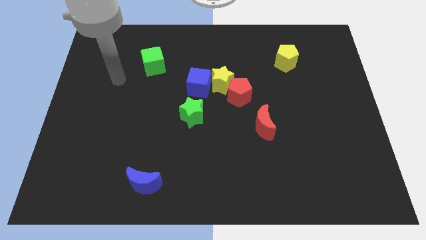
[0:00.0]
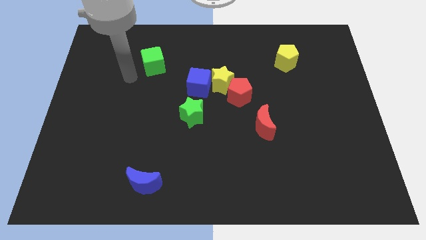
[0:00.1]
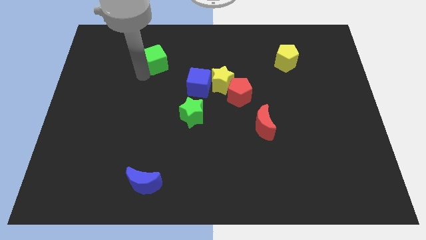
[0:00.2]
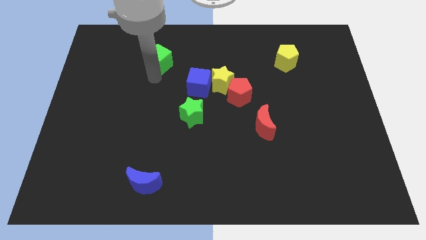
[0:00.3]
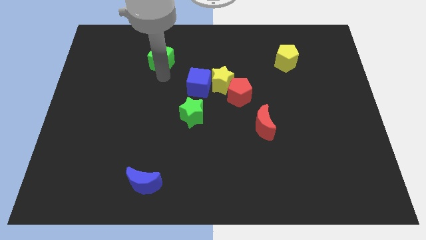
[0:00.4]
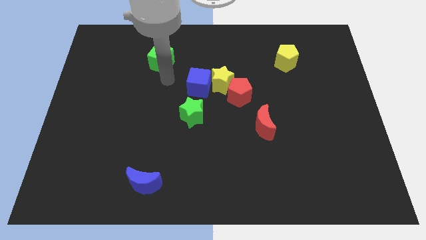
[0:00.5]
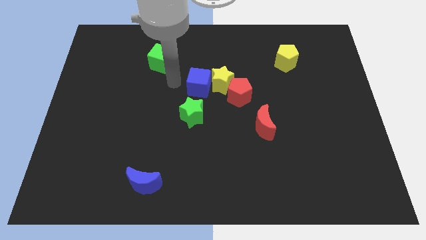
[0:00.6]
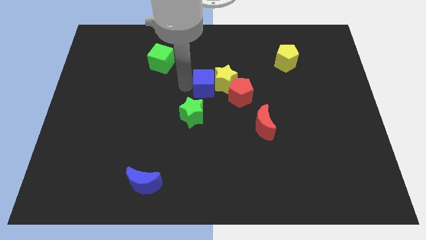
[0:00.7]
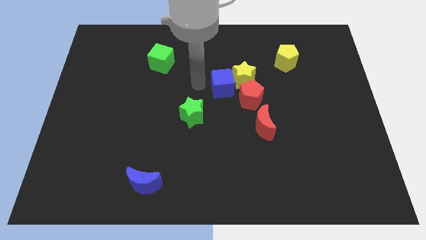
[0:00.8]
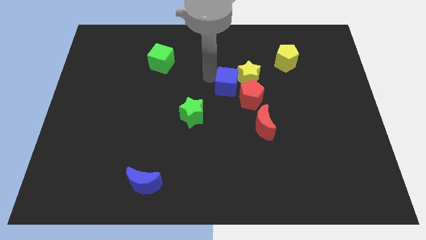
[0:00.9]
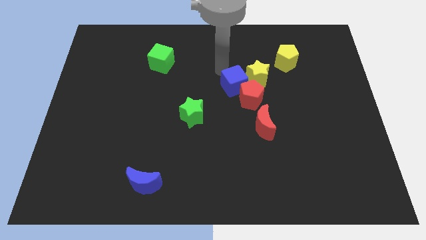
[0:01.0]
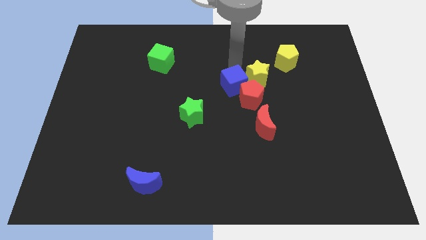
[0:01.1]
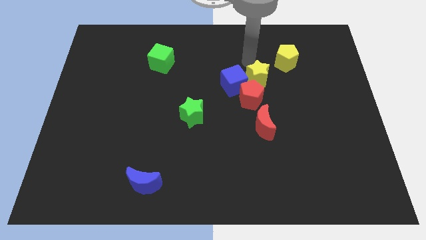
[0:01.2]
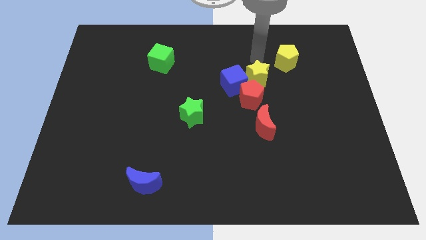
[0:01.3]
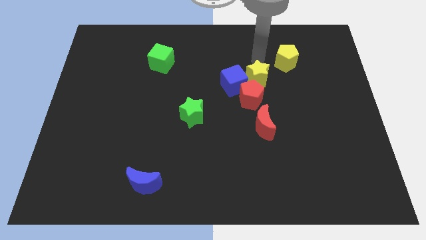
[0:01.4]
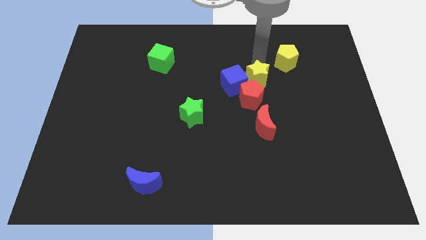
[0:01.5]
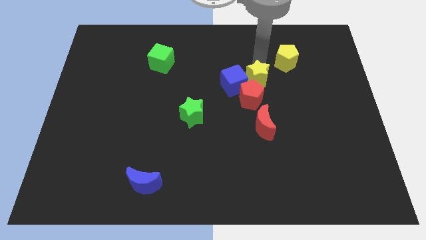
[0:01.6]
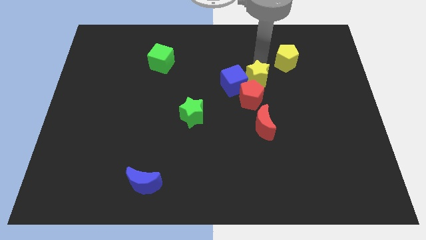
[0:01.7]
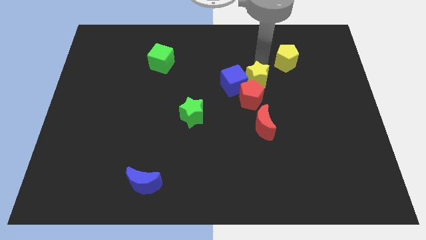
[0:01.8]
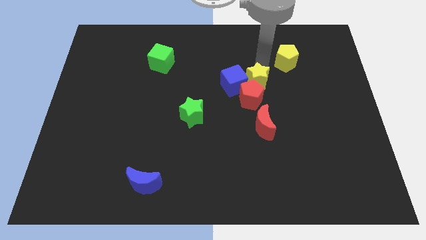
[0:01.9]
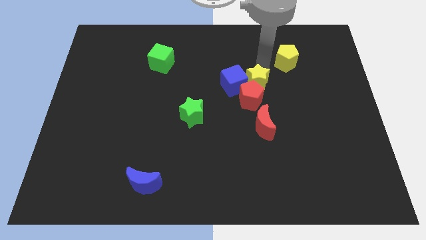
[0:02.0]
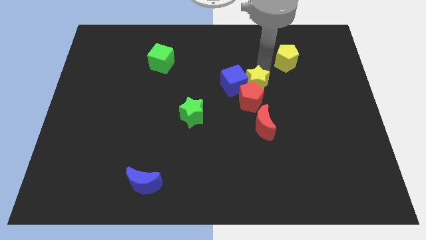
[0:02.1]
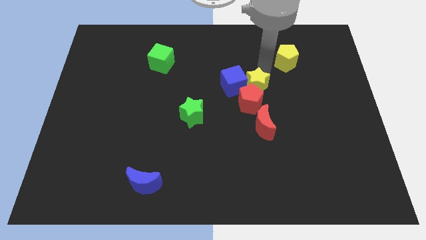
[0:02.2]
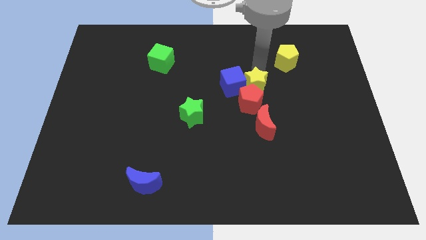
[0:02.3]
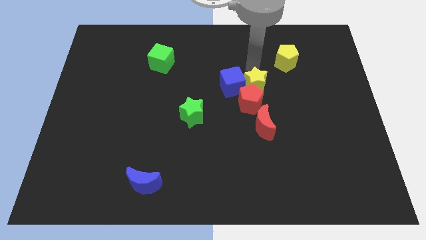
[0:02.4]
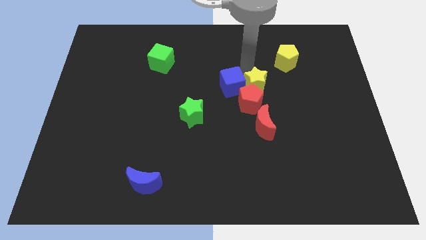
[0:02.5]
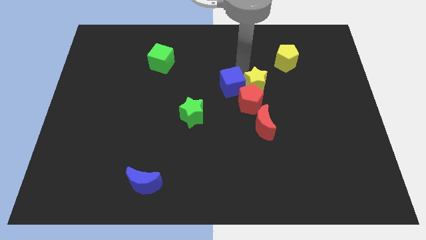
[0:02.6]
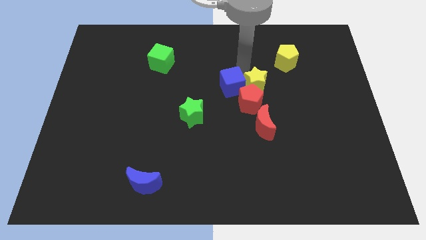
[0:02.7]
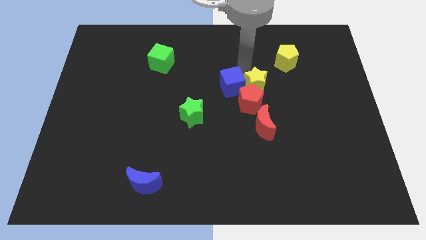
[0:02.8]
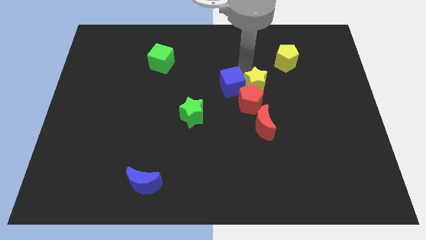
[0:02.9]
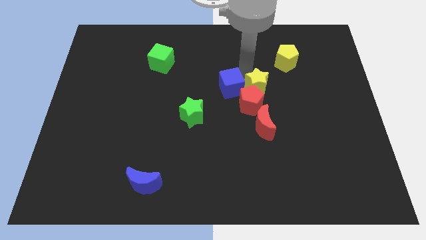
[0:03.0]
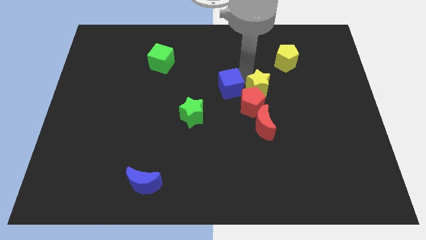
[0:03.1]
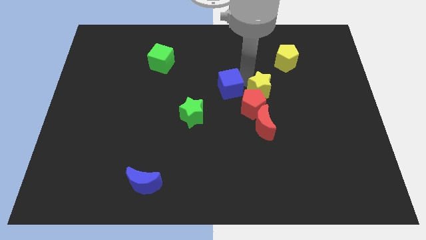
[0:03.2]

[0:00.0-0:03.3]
move the yellow star diagonally down and right somewhat

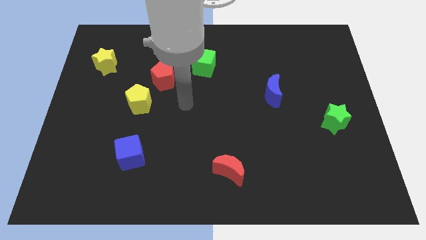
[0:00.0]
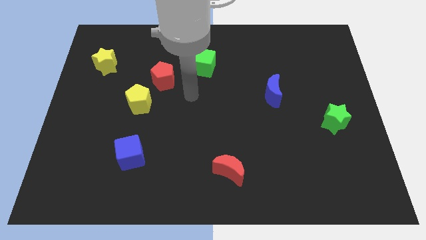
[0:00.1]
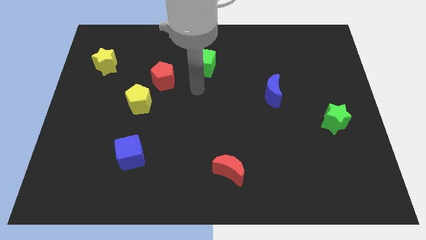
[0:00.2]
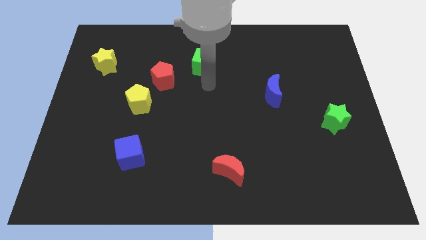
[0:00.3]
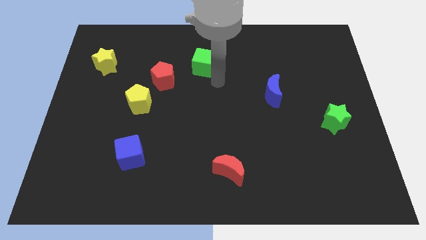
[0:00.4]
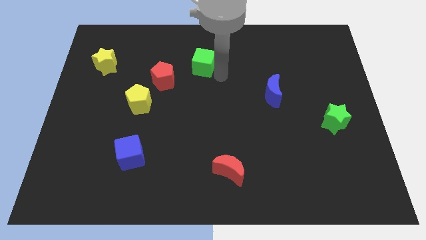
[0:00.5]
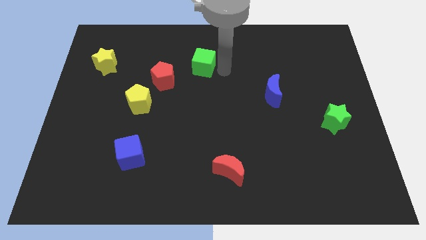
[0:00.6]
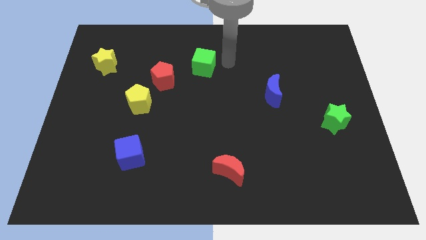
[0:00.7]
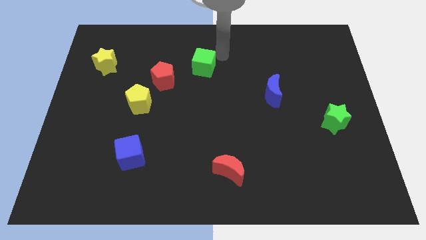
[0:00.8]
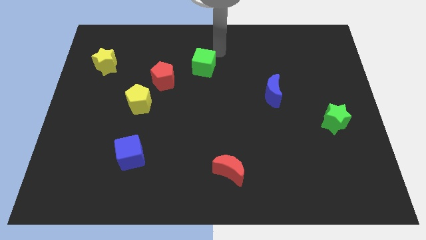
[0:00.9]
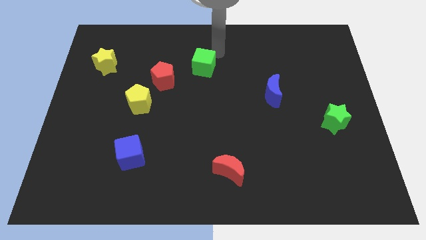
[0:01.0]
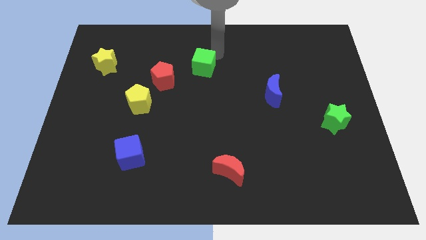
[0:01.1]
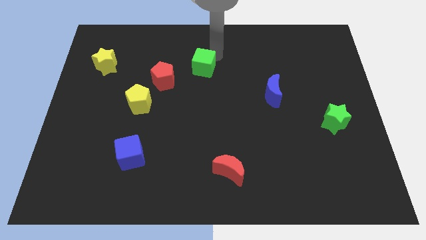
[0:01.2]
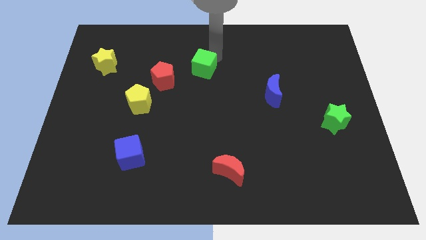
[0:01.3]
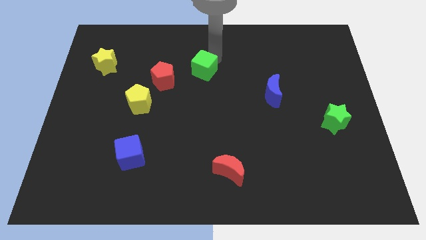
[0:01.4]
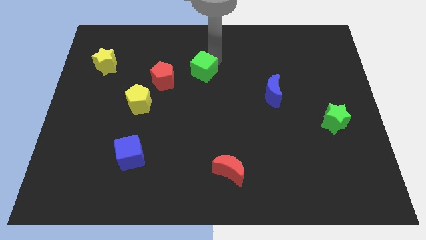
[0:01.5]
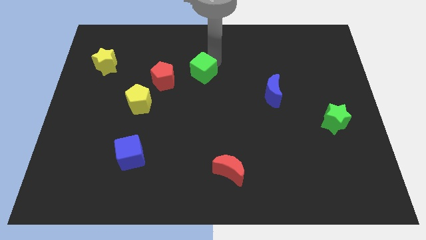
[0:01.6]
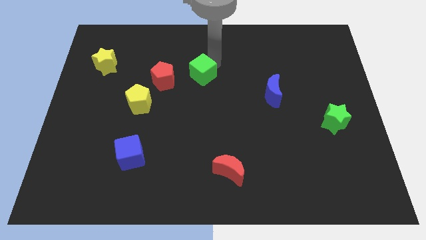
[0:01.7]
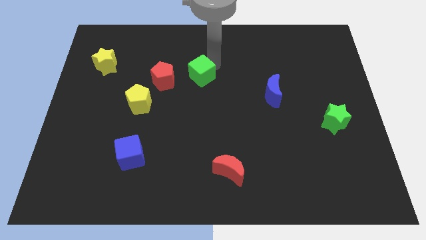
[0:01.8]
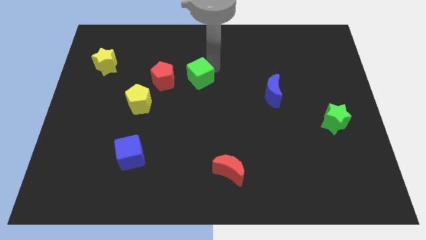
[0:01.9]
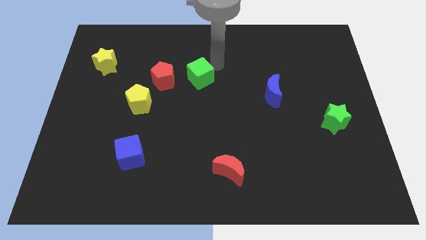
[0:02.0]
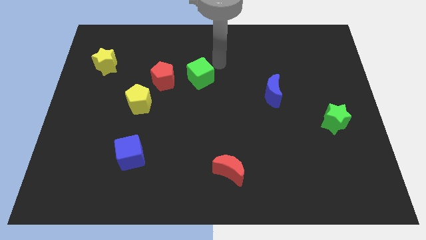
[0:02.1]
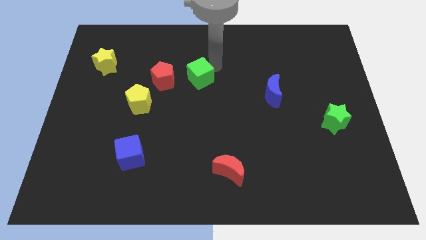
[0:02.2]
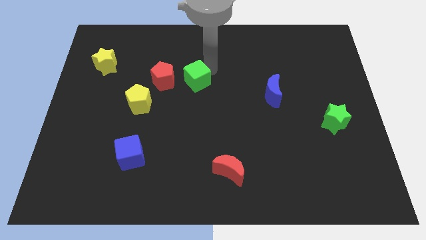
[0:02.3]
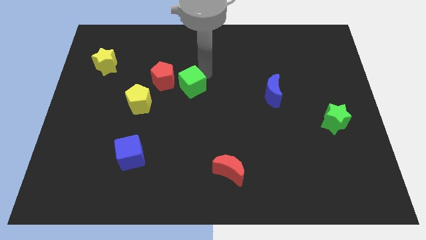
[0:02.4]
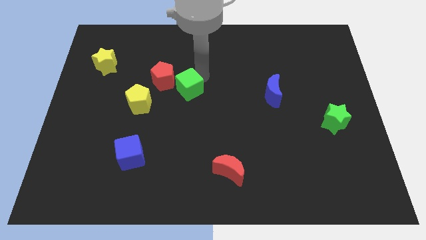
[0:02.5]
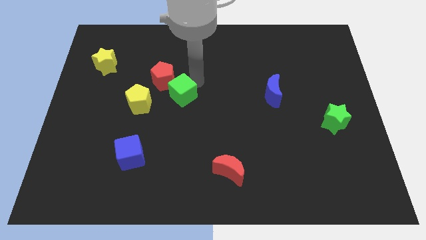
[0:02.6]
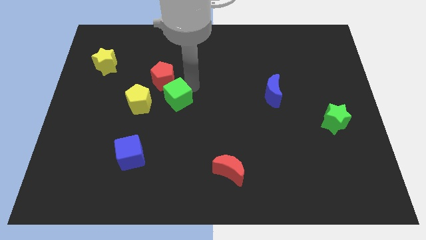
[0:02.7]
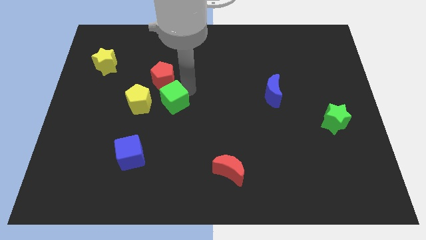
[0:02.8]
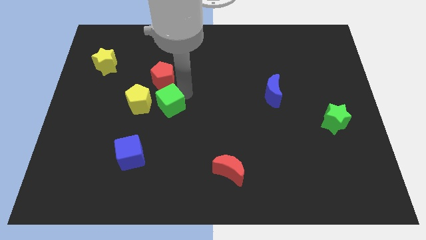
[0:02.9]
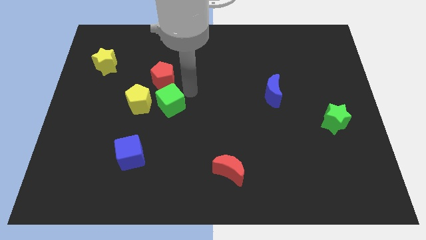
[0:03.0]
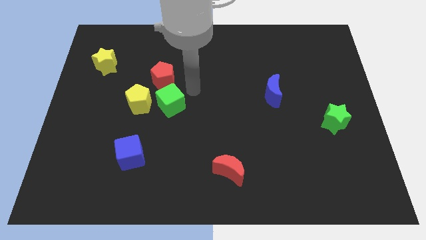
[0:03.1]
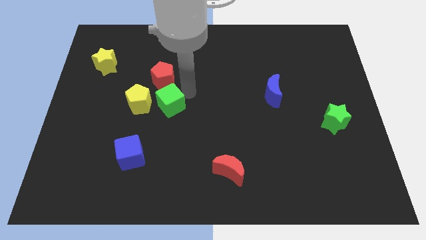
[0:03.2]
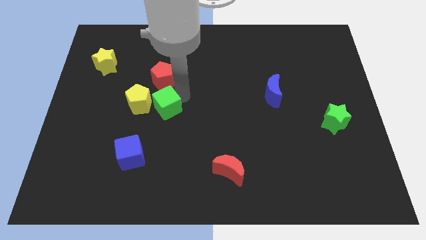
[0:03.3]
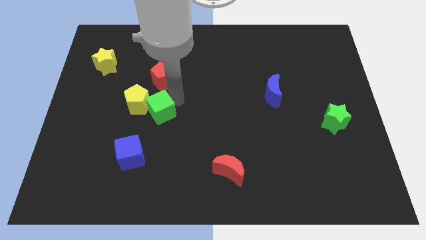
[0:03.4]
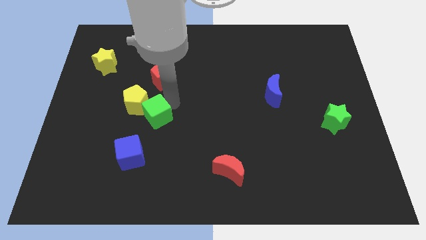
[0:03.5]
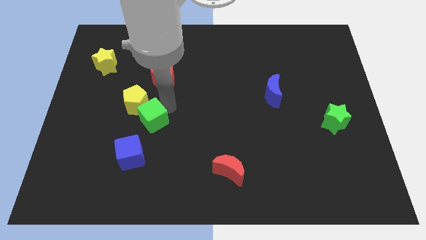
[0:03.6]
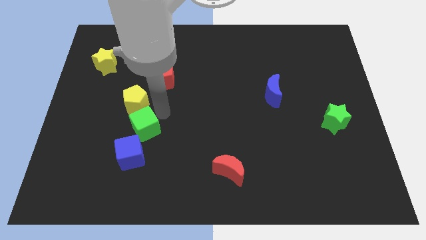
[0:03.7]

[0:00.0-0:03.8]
slide the green cube downwards and to the left diagonally

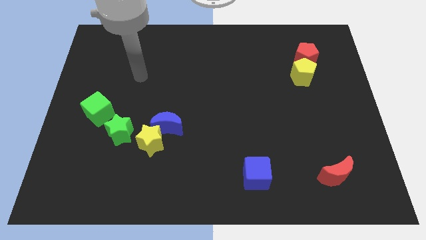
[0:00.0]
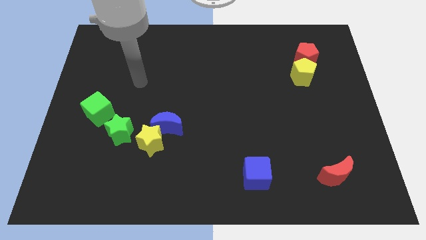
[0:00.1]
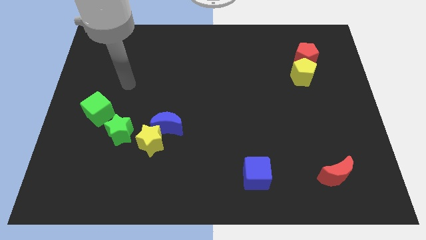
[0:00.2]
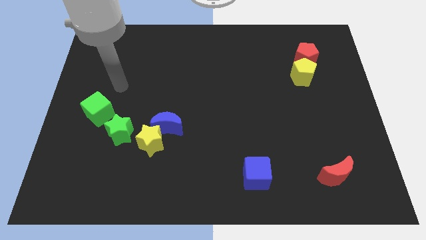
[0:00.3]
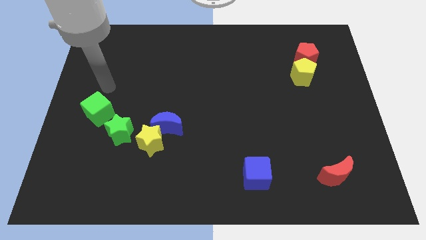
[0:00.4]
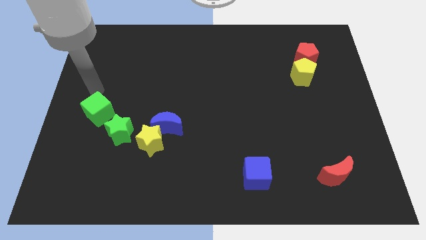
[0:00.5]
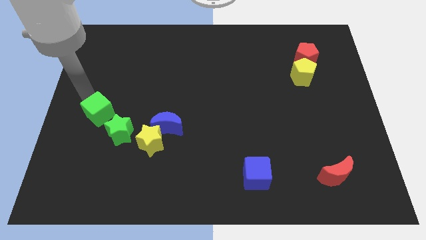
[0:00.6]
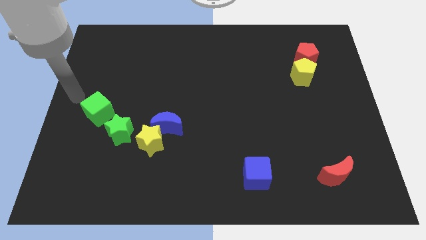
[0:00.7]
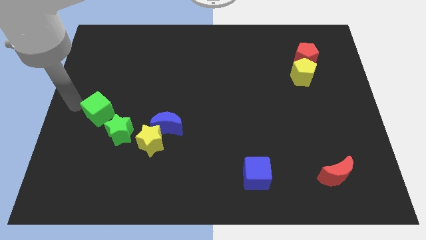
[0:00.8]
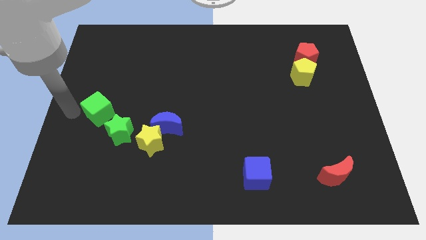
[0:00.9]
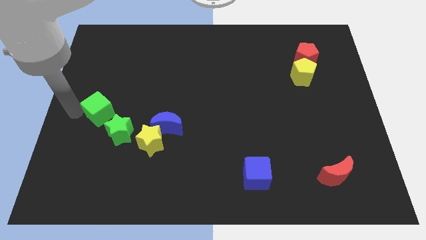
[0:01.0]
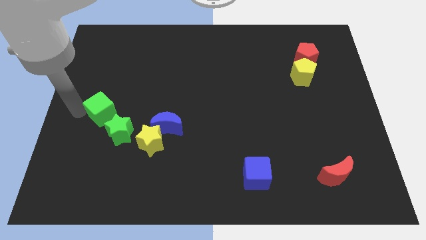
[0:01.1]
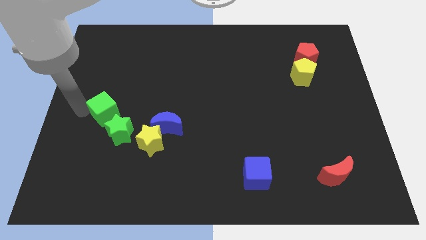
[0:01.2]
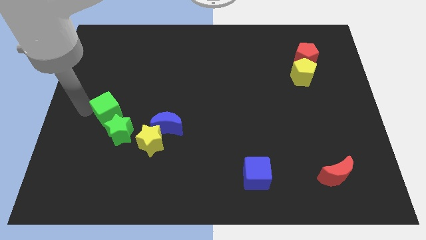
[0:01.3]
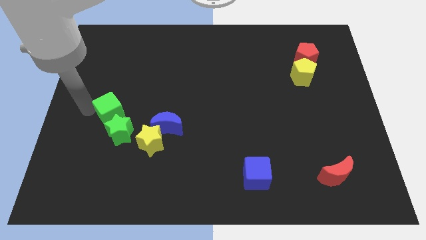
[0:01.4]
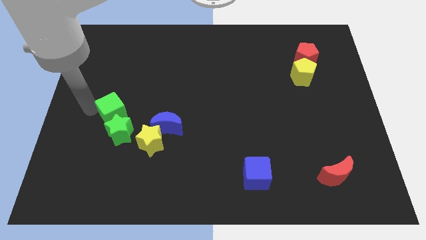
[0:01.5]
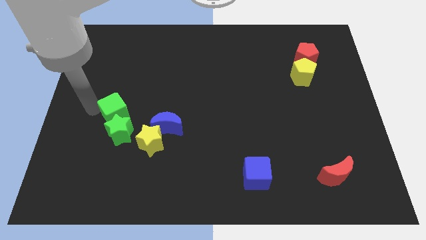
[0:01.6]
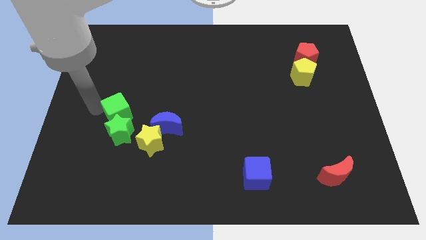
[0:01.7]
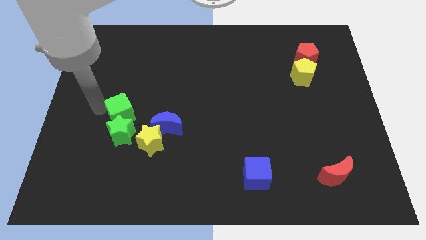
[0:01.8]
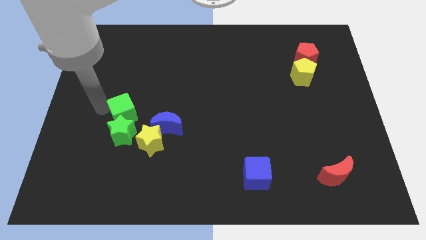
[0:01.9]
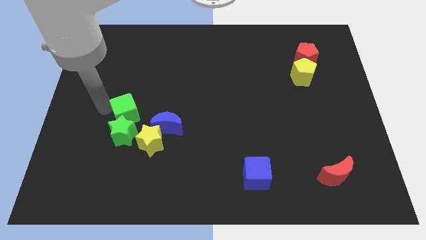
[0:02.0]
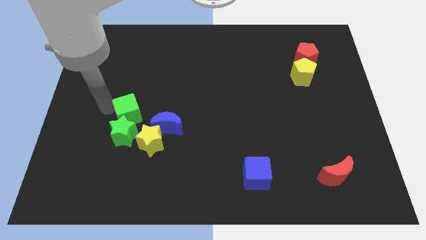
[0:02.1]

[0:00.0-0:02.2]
slightly move the green cube right
